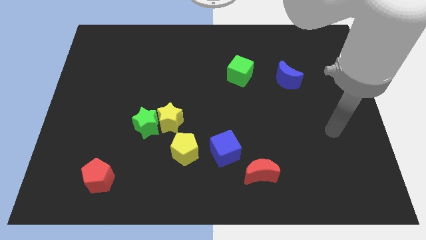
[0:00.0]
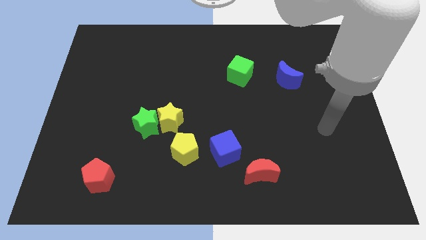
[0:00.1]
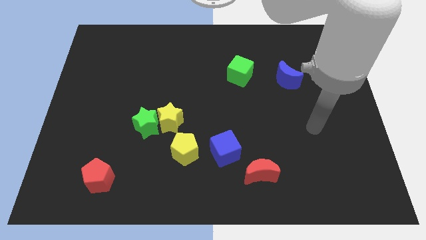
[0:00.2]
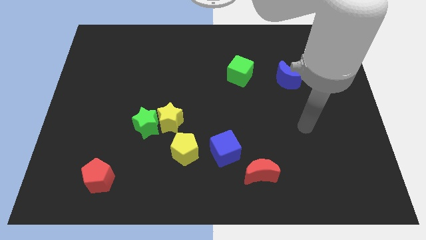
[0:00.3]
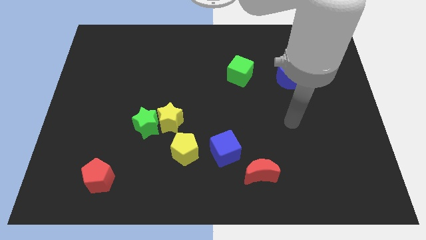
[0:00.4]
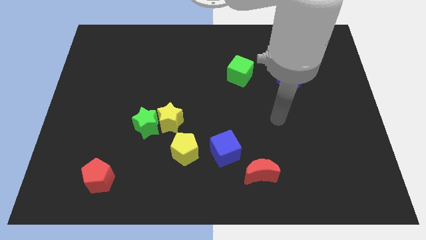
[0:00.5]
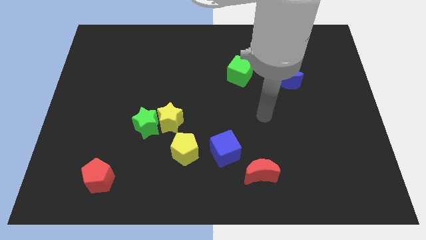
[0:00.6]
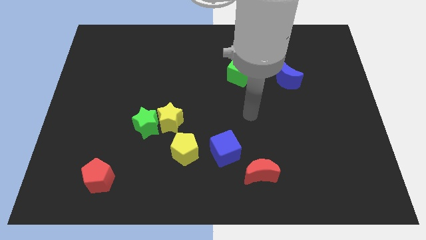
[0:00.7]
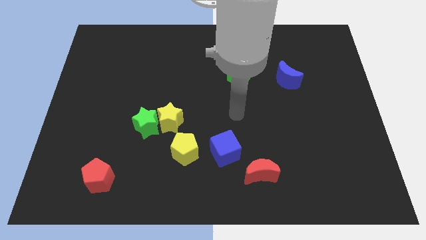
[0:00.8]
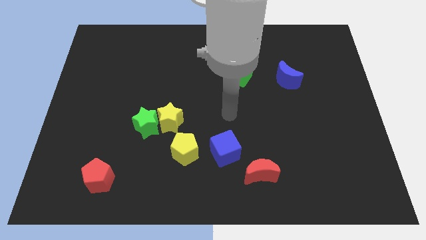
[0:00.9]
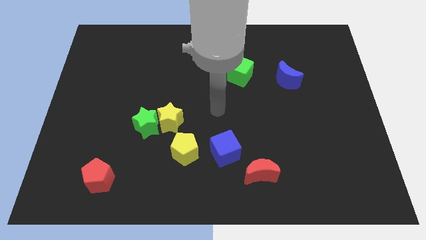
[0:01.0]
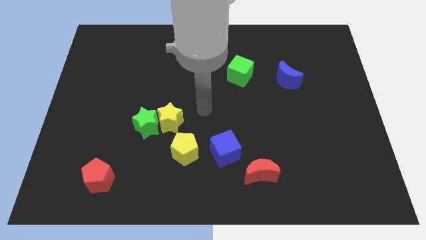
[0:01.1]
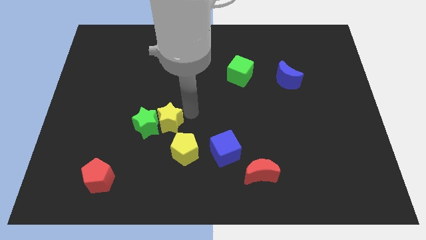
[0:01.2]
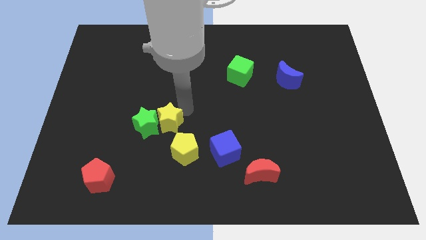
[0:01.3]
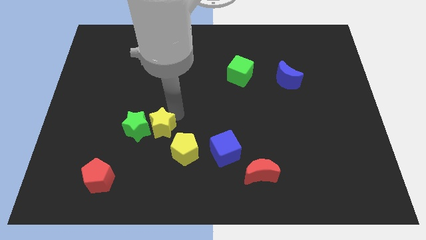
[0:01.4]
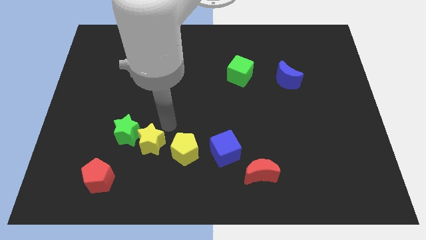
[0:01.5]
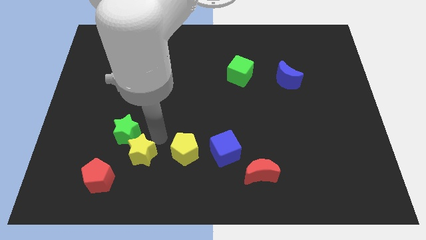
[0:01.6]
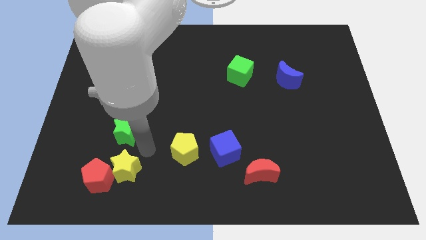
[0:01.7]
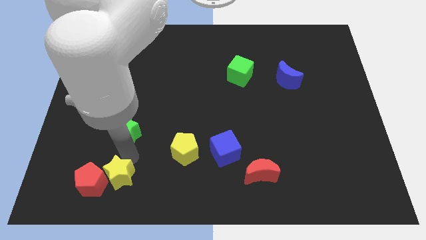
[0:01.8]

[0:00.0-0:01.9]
pull the green star apart from the yellow star

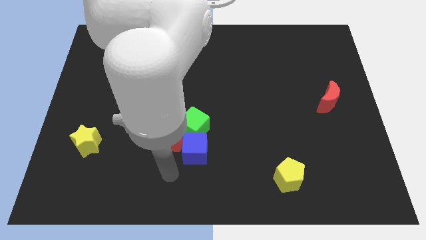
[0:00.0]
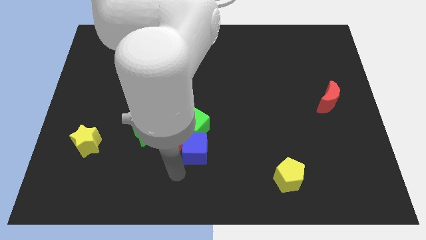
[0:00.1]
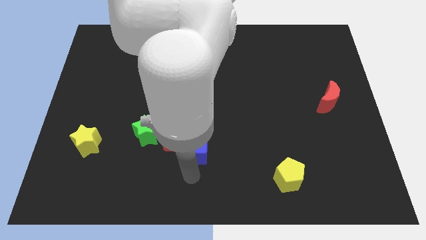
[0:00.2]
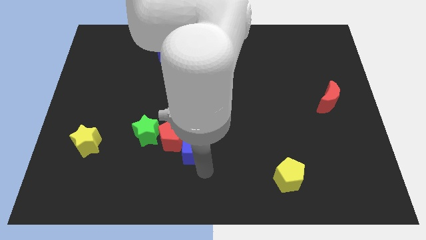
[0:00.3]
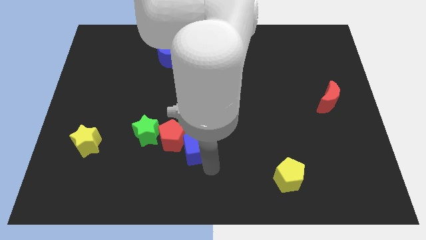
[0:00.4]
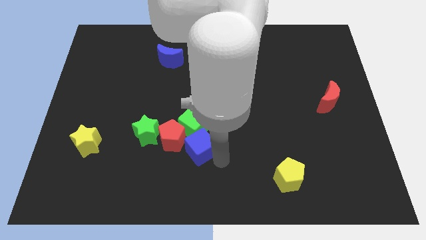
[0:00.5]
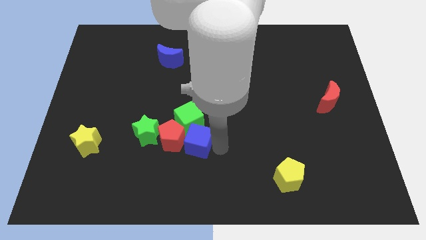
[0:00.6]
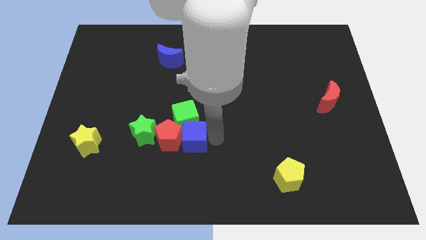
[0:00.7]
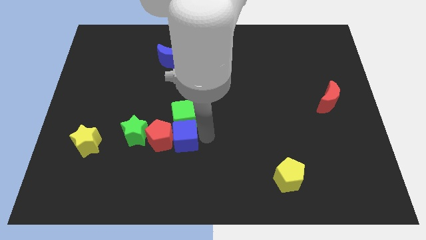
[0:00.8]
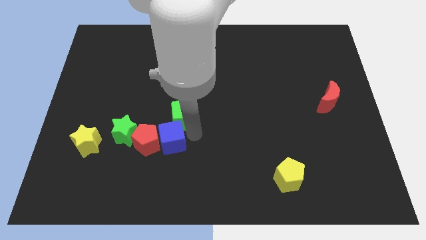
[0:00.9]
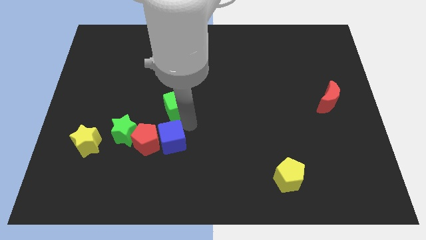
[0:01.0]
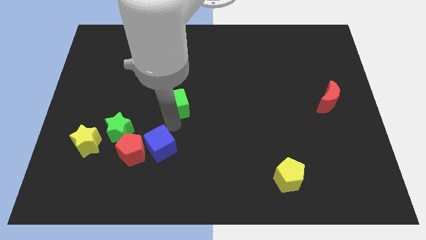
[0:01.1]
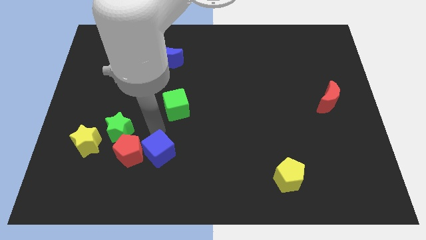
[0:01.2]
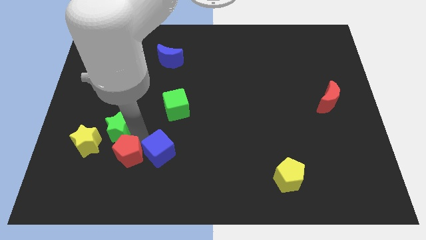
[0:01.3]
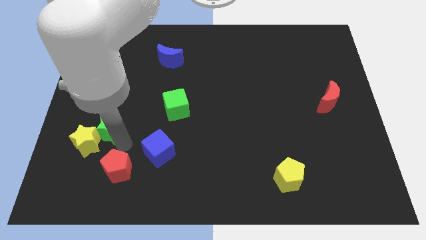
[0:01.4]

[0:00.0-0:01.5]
move the red pentagon away from the group of blocks

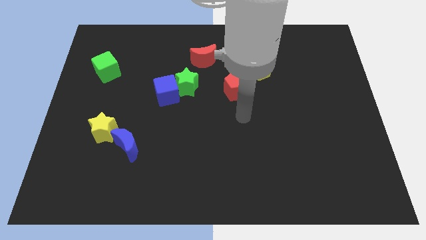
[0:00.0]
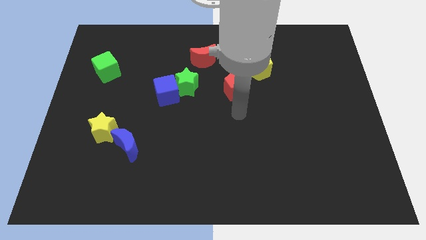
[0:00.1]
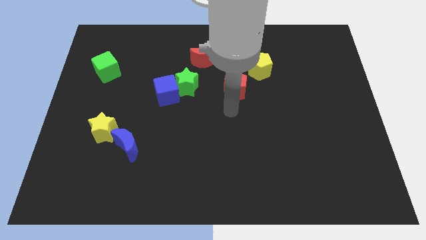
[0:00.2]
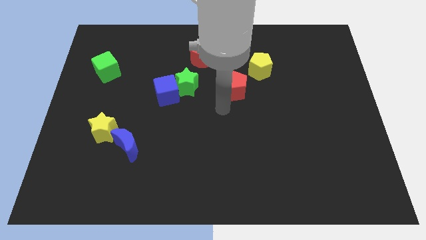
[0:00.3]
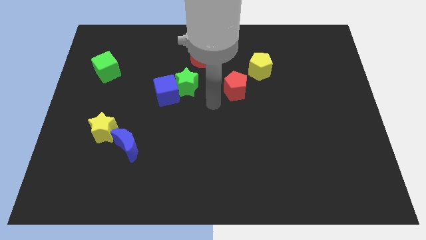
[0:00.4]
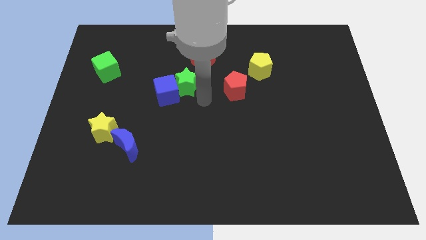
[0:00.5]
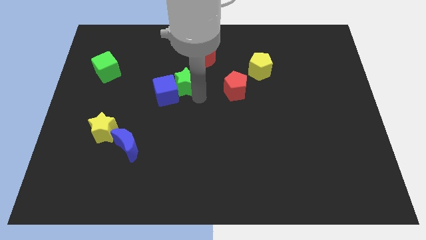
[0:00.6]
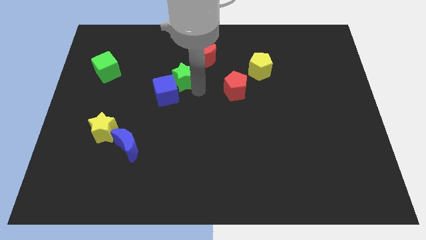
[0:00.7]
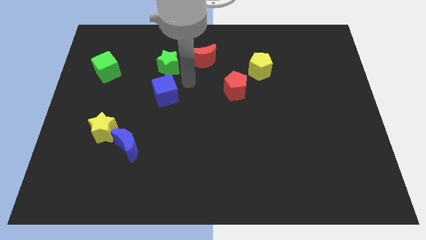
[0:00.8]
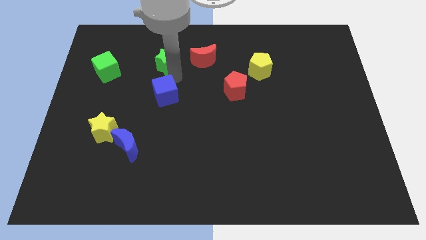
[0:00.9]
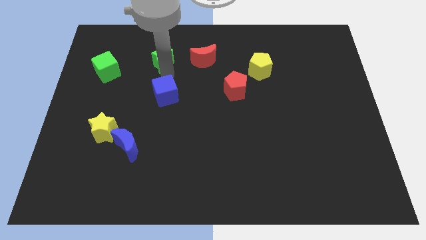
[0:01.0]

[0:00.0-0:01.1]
separate the blue cube from the green star

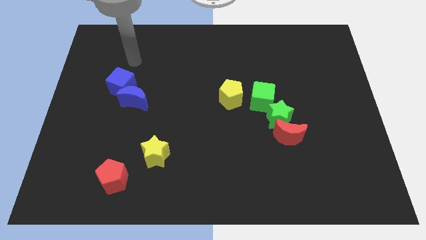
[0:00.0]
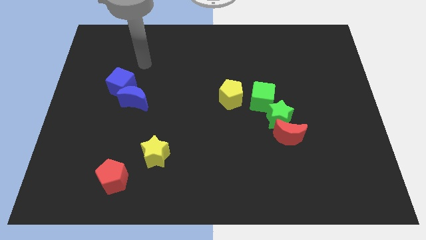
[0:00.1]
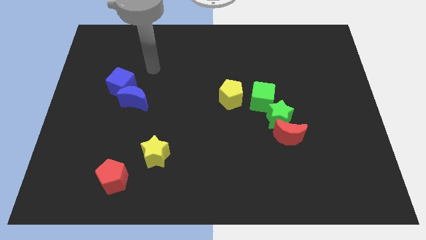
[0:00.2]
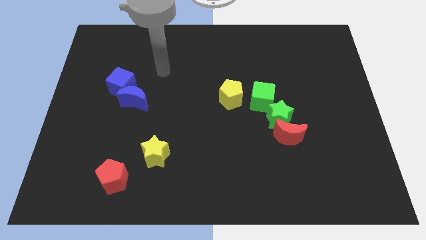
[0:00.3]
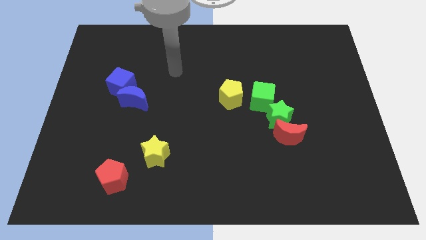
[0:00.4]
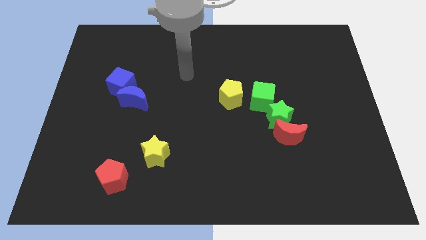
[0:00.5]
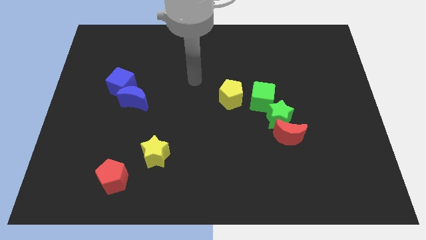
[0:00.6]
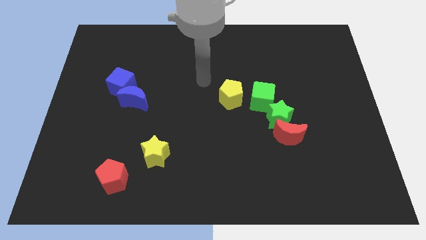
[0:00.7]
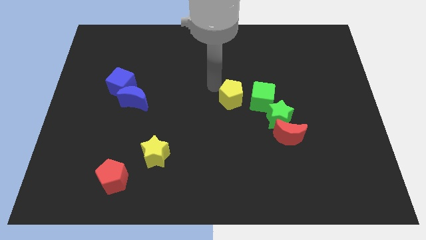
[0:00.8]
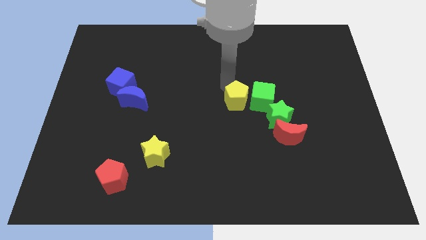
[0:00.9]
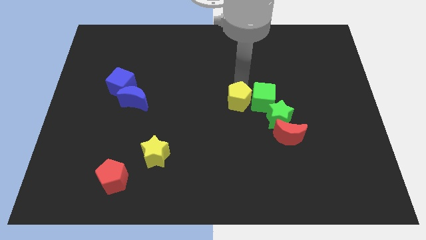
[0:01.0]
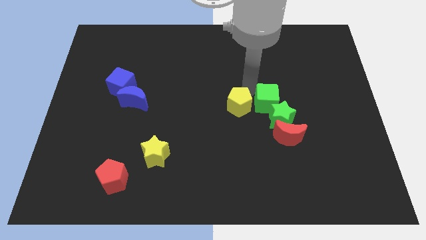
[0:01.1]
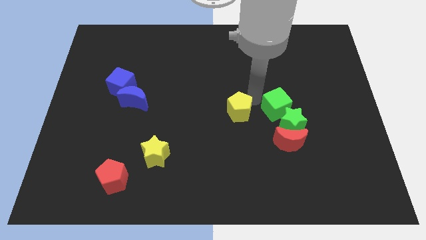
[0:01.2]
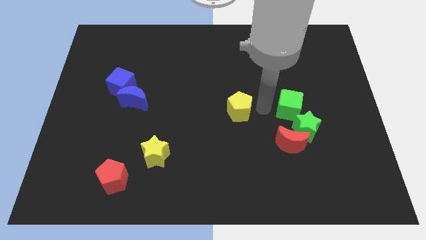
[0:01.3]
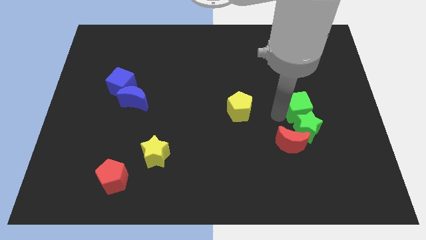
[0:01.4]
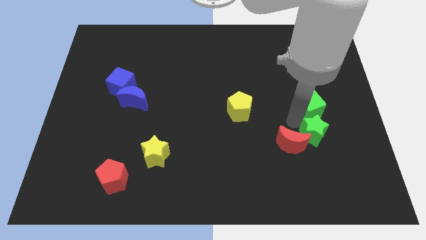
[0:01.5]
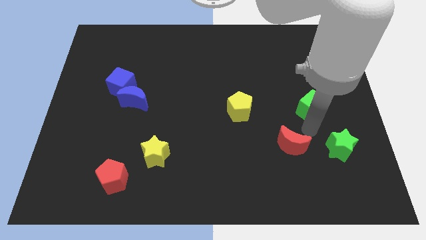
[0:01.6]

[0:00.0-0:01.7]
separate the red moon from the green star

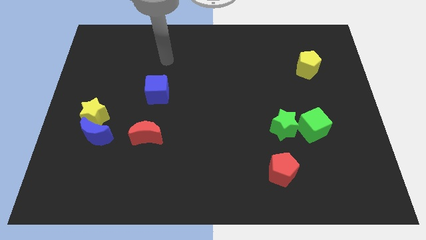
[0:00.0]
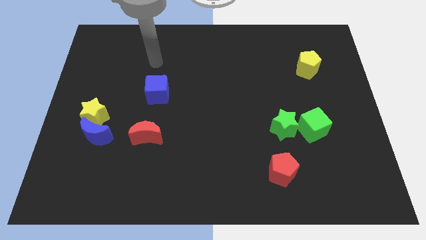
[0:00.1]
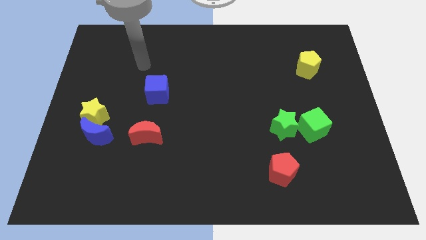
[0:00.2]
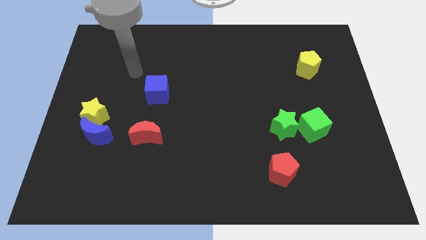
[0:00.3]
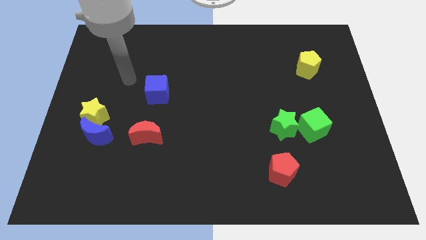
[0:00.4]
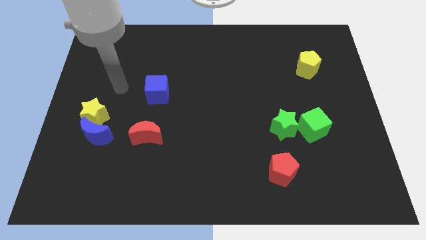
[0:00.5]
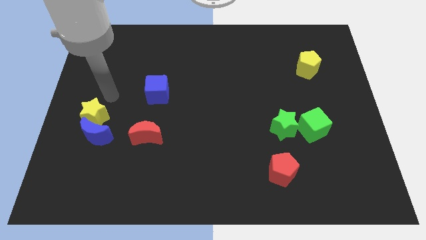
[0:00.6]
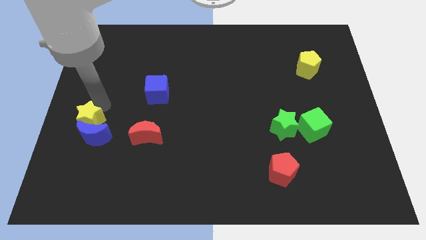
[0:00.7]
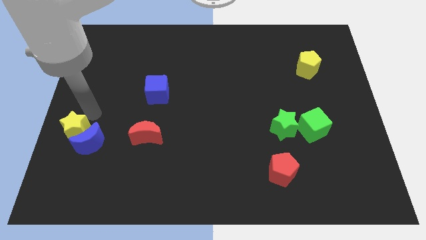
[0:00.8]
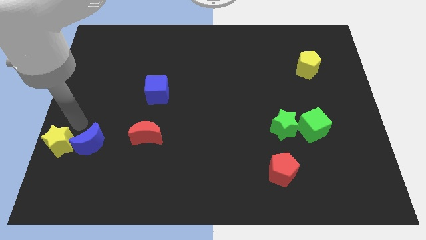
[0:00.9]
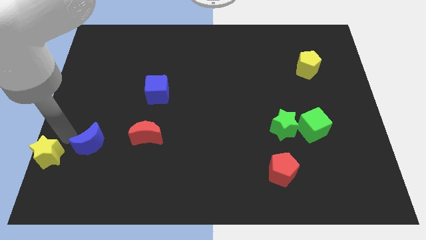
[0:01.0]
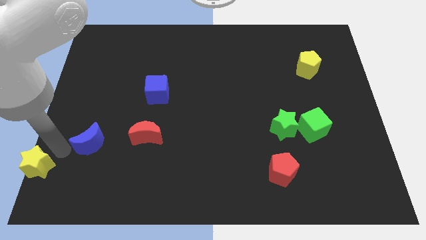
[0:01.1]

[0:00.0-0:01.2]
pull the blue moon apart from the yellow star

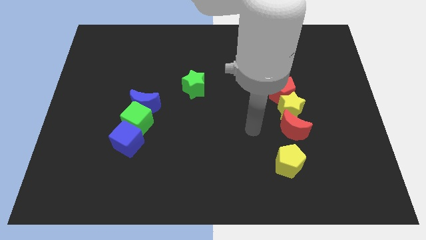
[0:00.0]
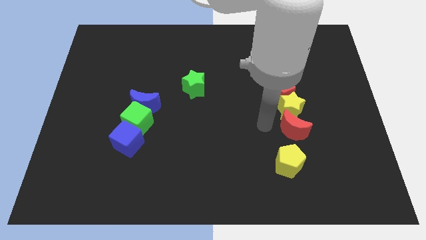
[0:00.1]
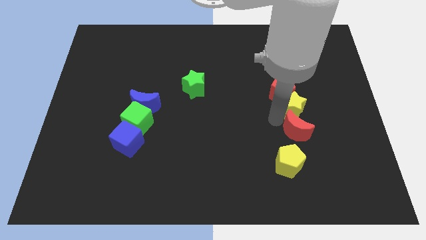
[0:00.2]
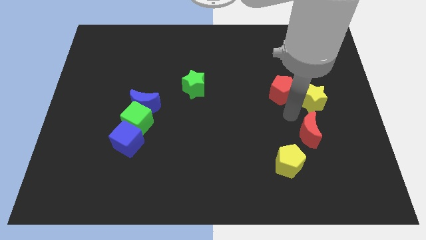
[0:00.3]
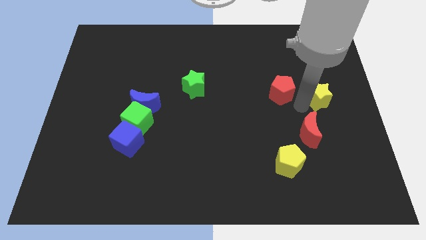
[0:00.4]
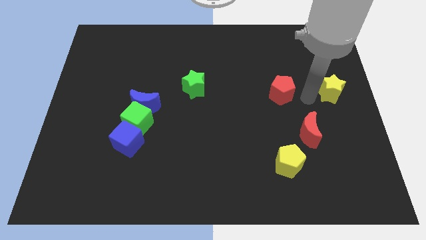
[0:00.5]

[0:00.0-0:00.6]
move the red pentagon away from the yellow star

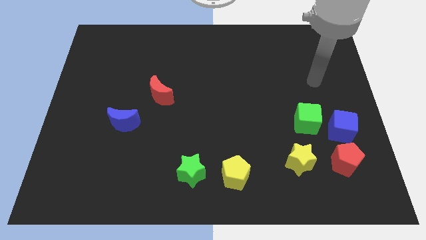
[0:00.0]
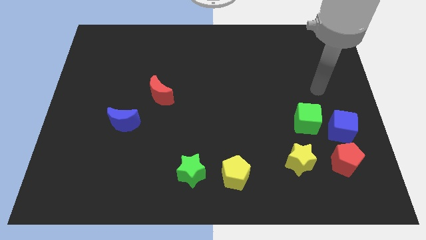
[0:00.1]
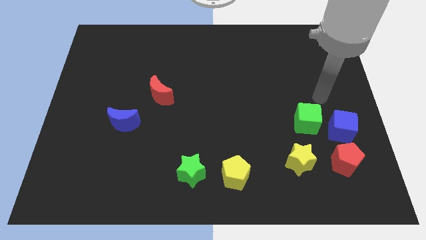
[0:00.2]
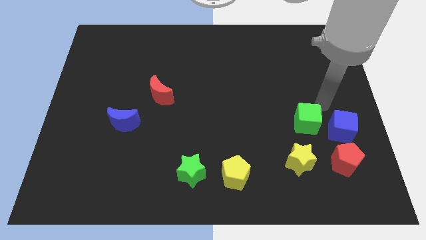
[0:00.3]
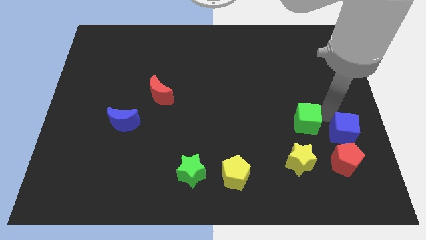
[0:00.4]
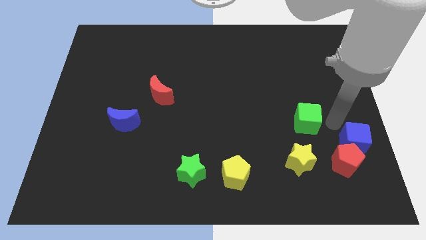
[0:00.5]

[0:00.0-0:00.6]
pull the green cube apart from the blue cube

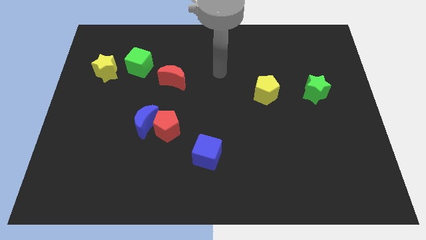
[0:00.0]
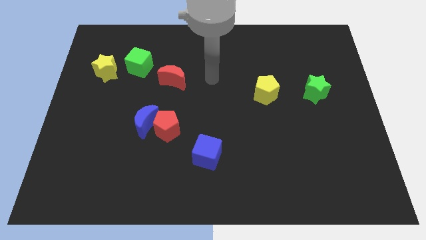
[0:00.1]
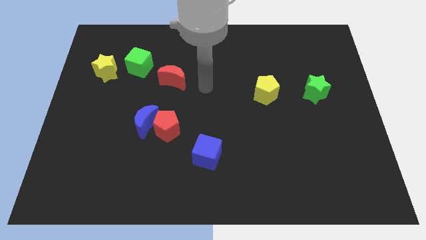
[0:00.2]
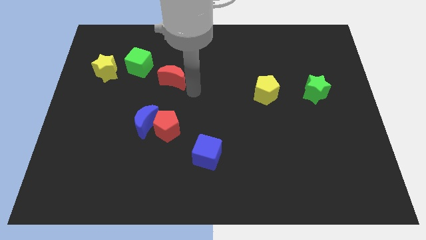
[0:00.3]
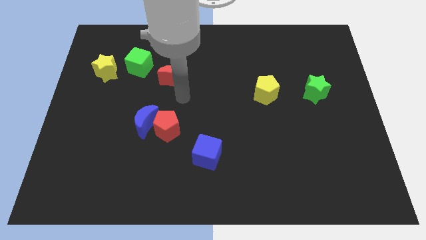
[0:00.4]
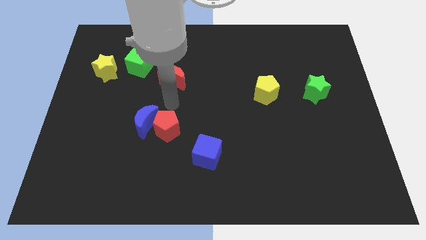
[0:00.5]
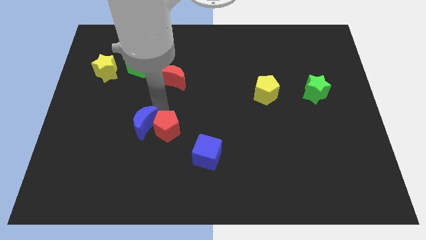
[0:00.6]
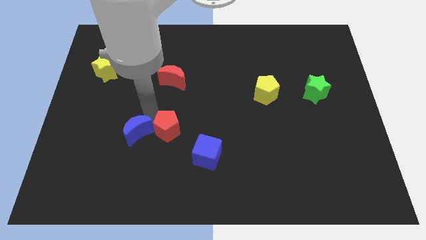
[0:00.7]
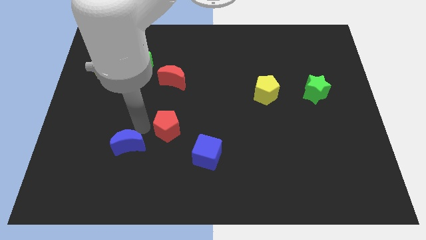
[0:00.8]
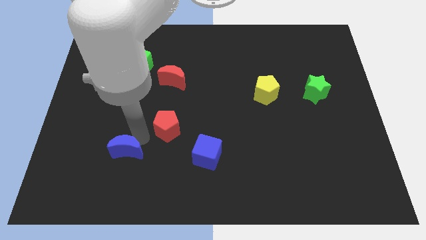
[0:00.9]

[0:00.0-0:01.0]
move the red pentagon away from the blue moon
